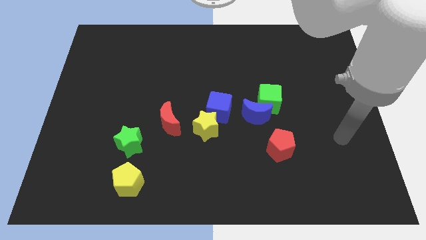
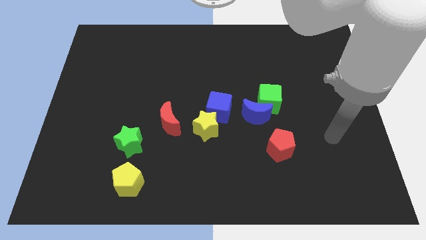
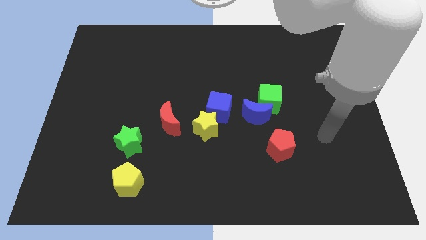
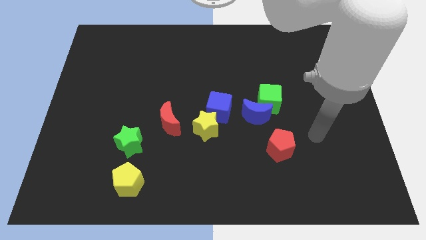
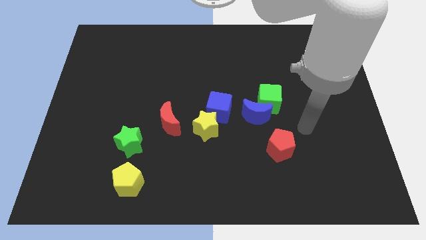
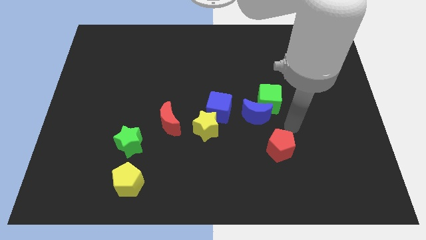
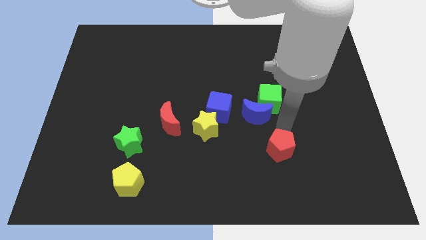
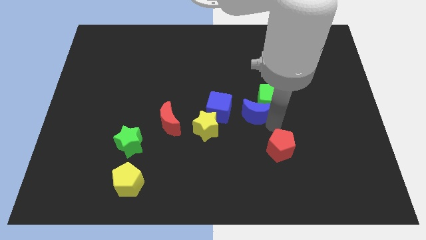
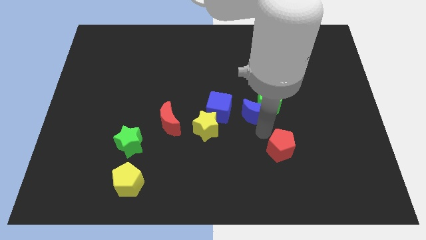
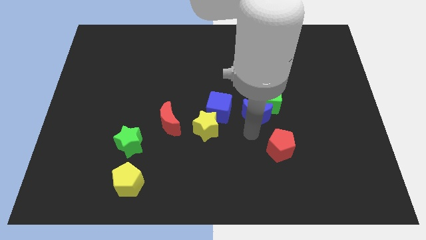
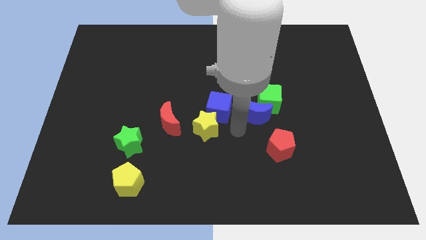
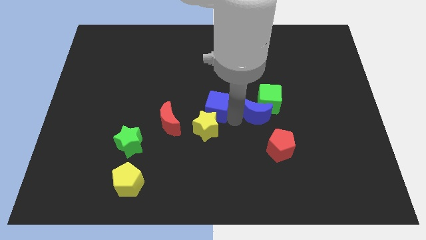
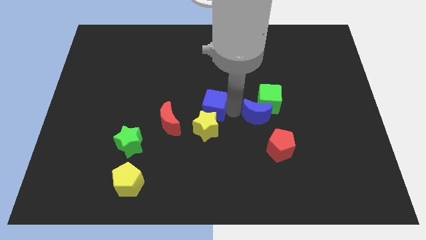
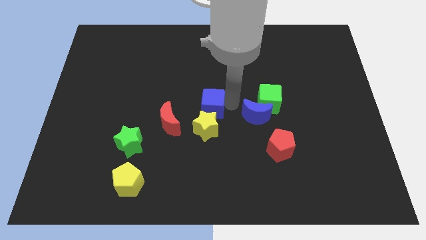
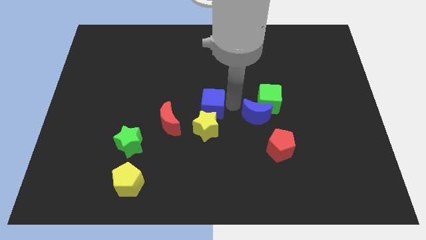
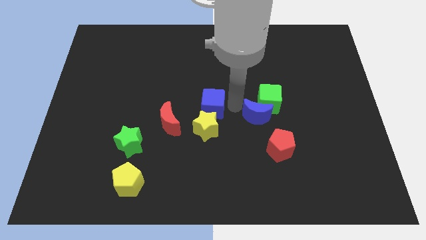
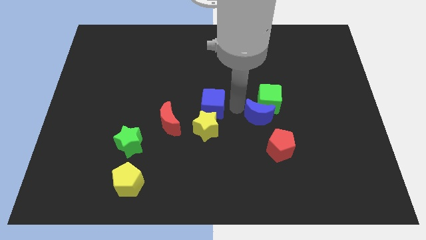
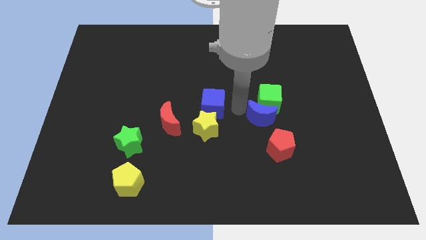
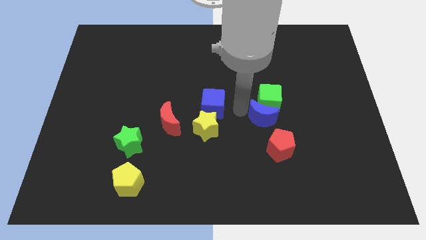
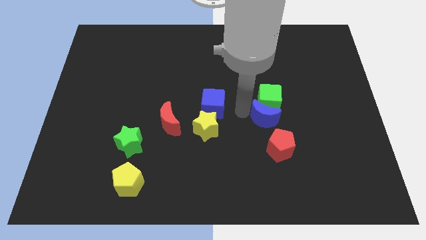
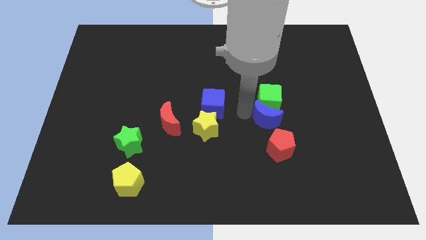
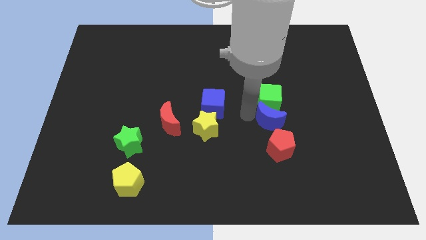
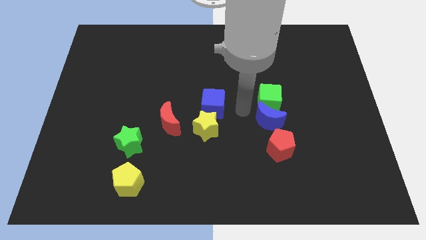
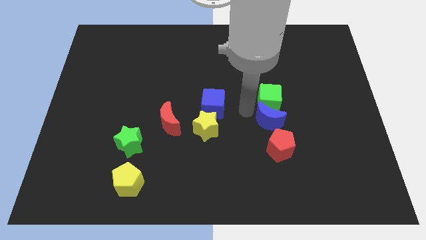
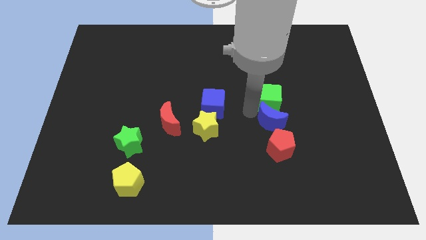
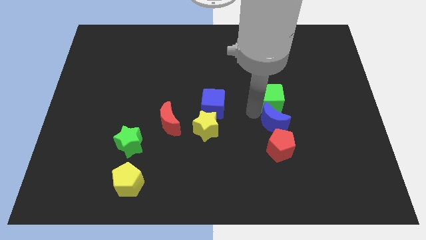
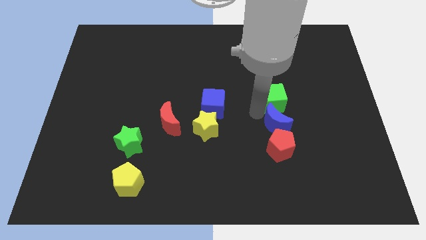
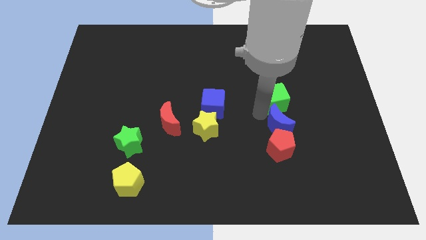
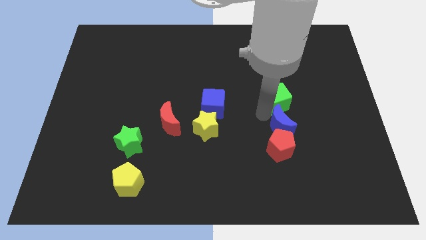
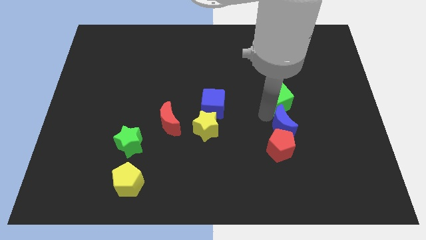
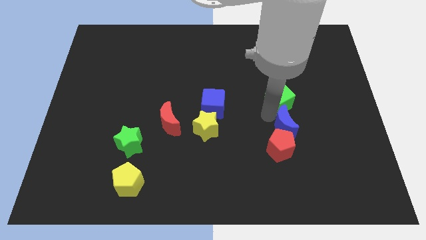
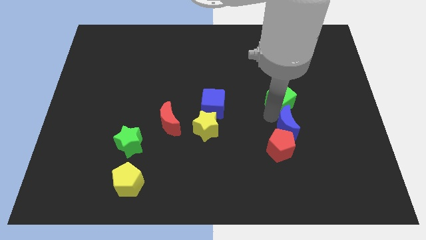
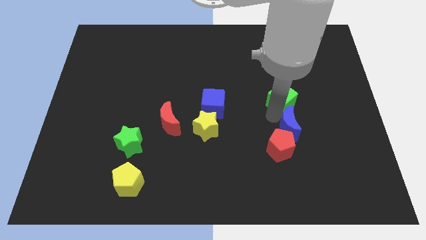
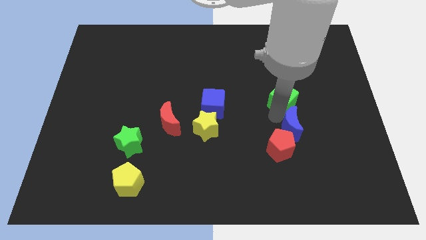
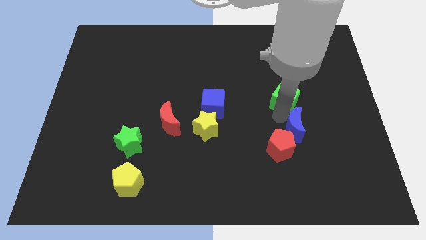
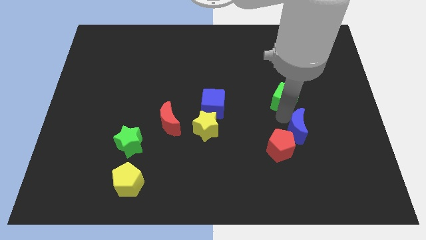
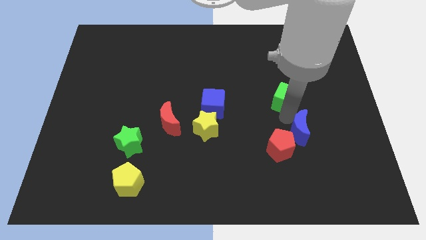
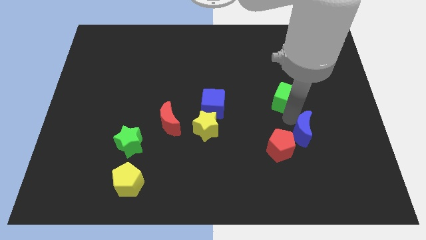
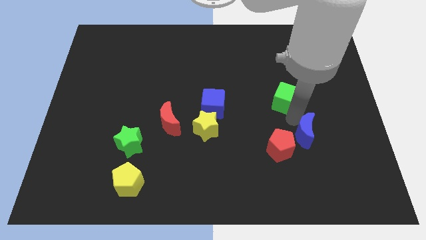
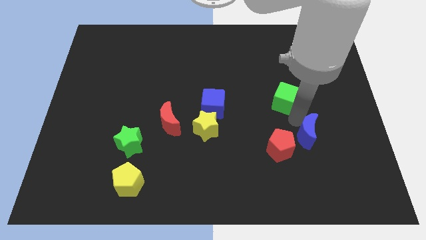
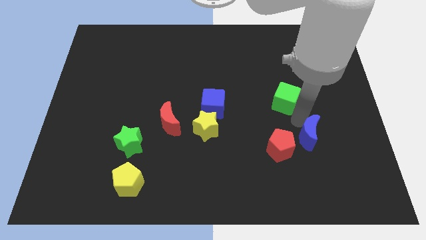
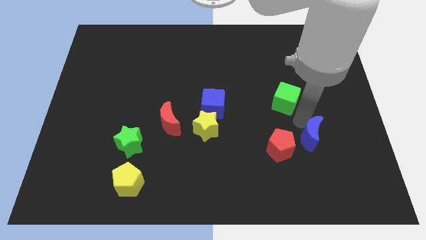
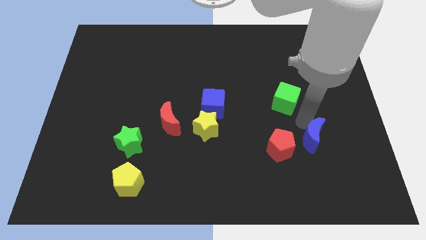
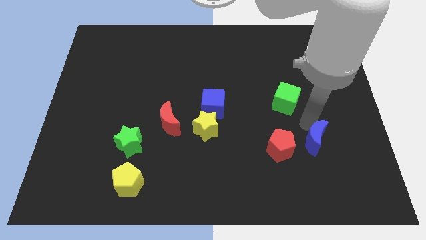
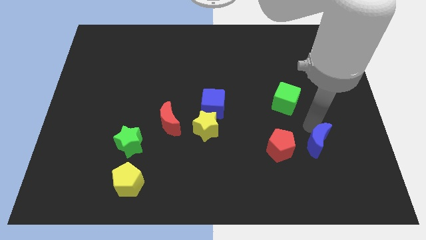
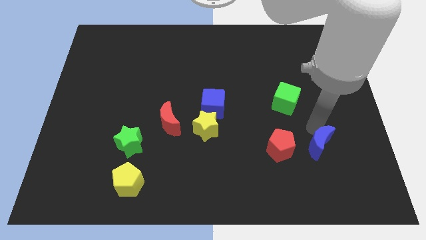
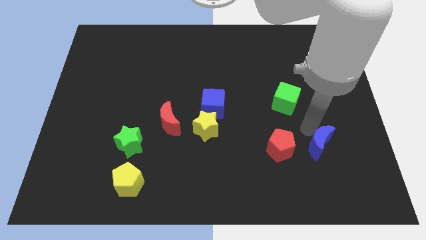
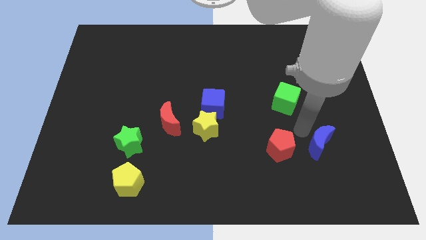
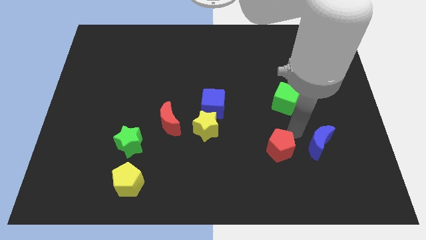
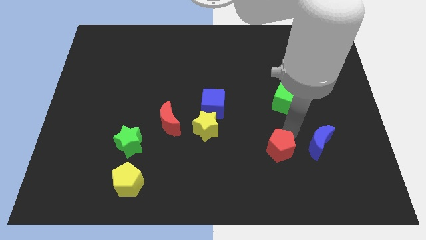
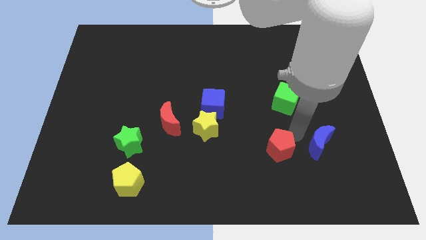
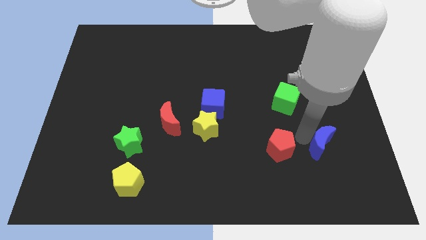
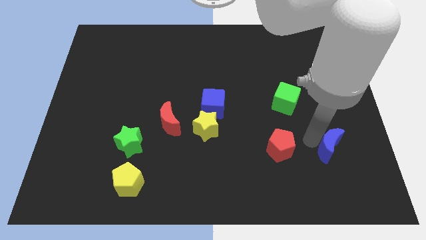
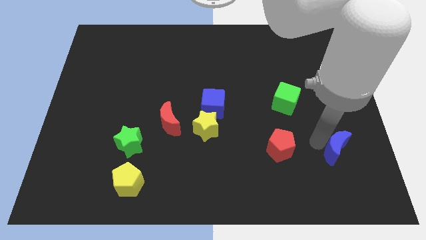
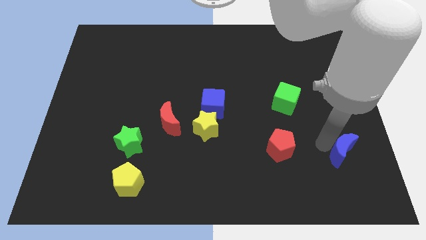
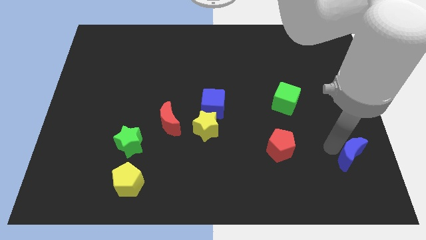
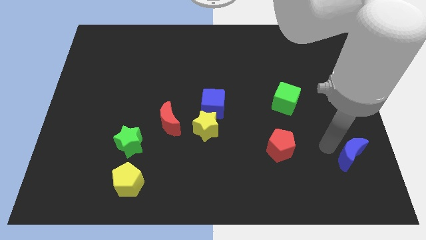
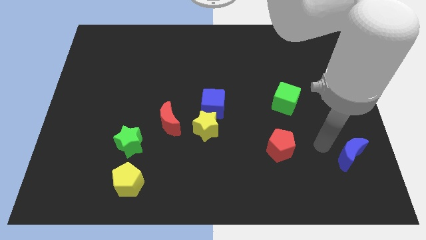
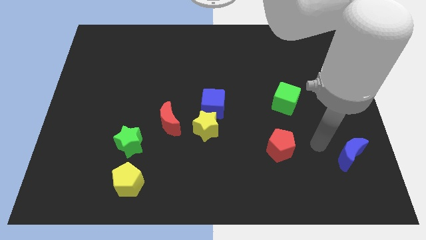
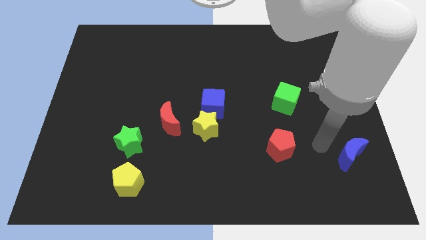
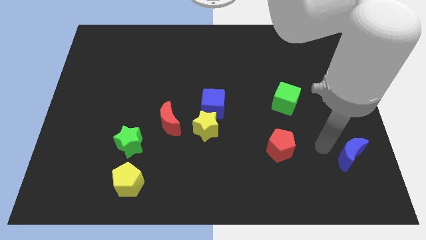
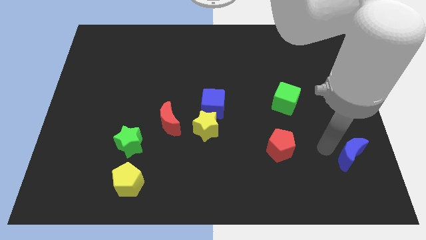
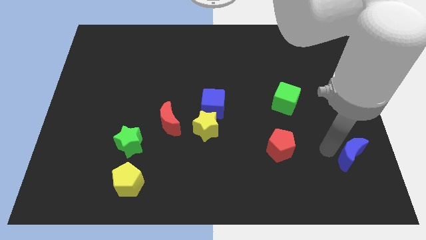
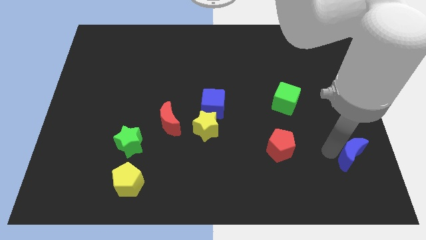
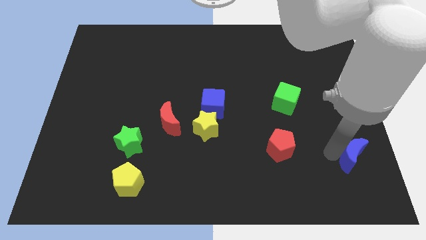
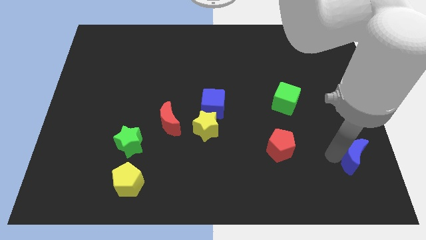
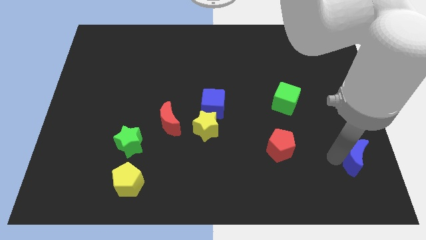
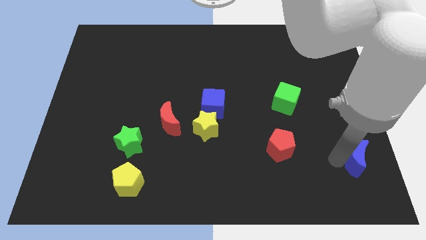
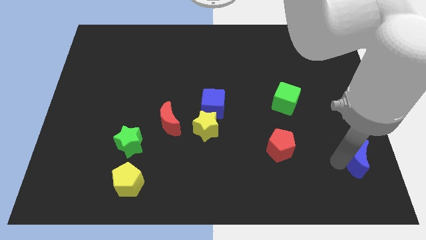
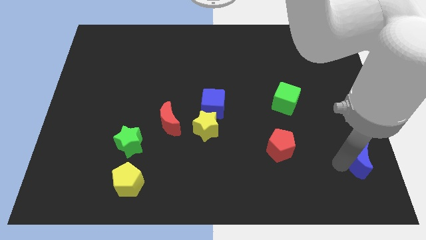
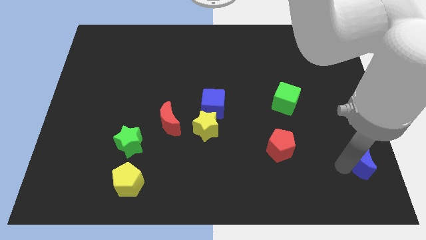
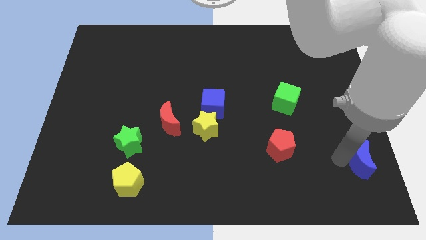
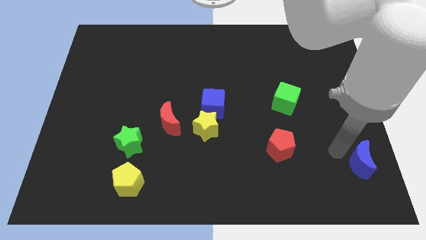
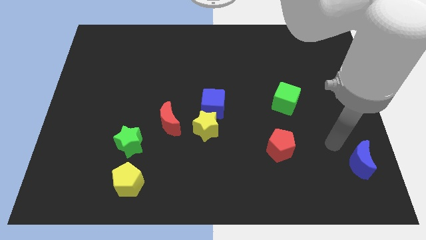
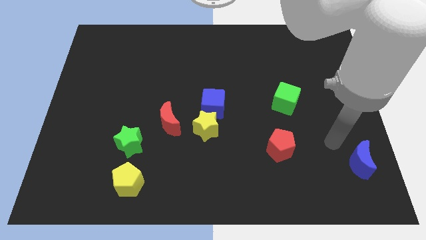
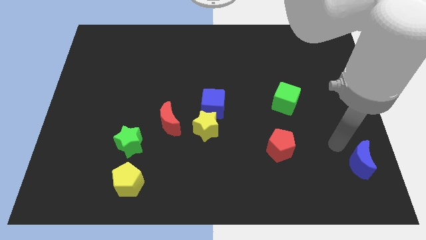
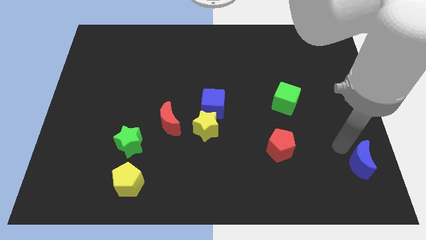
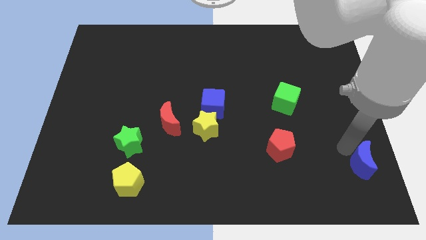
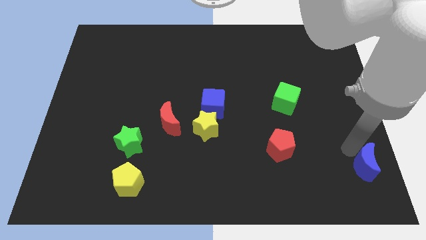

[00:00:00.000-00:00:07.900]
push the blue moon to the bottom right of the board
